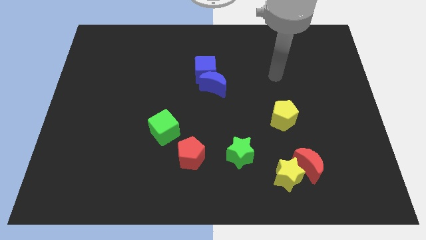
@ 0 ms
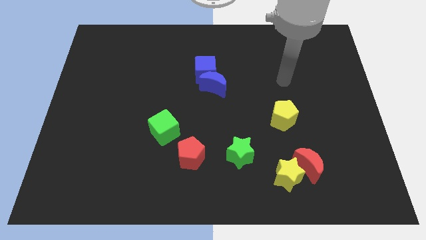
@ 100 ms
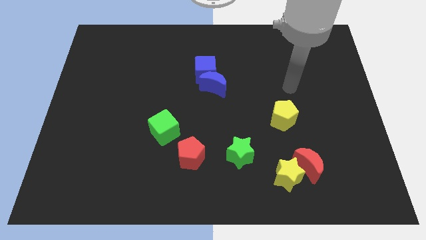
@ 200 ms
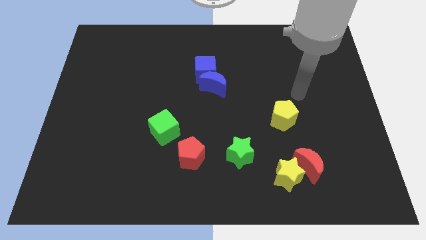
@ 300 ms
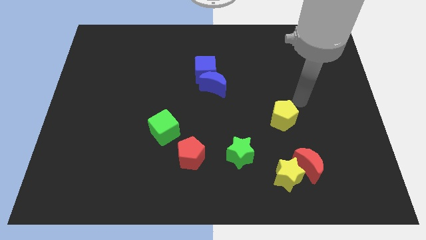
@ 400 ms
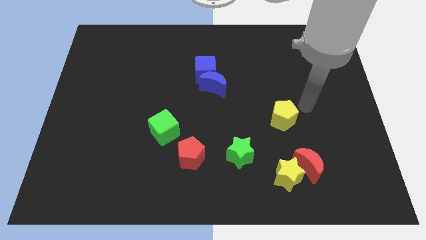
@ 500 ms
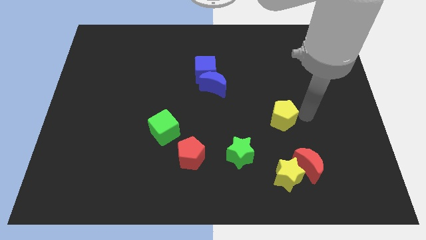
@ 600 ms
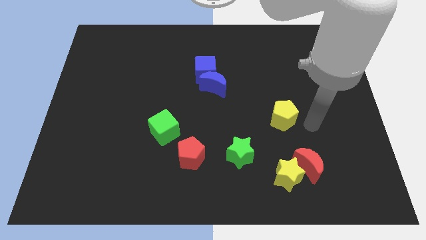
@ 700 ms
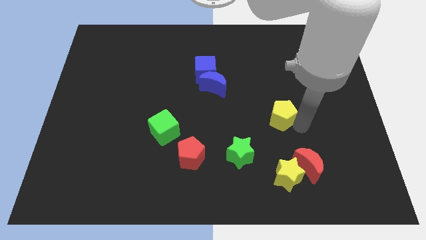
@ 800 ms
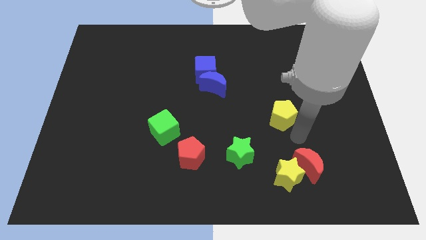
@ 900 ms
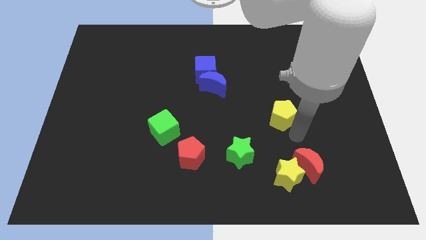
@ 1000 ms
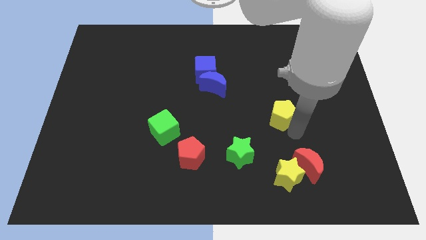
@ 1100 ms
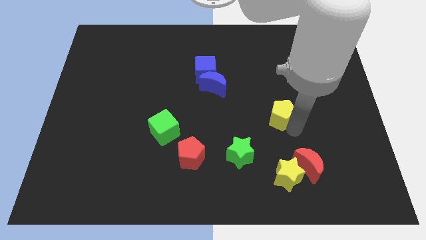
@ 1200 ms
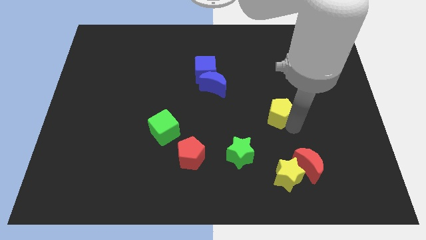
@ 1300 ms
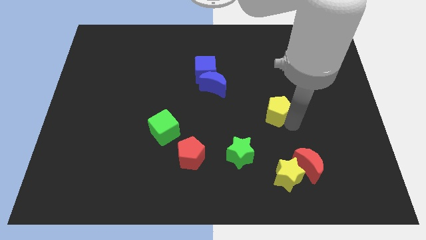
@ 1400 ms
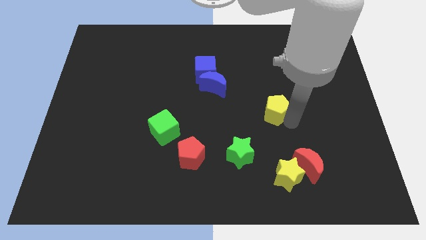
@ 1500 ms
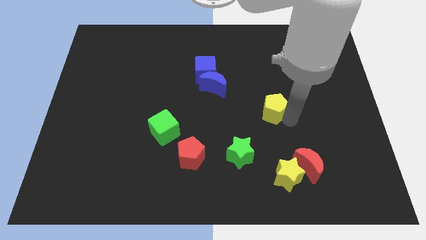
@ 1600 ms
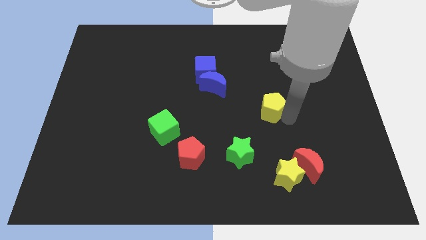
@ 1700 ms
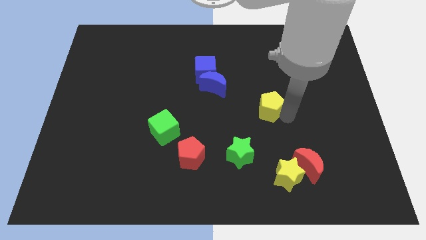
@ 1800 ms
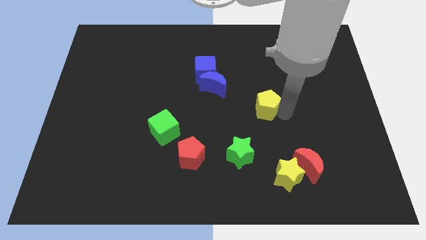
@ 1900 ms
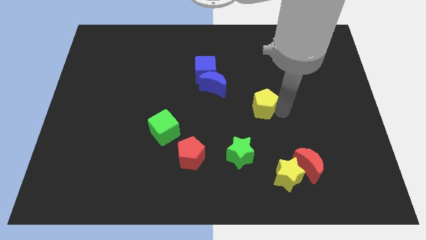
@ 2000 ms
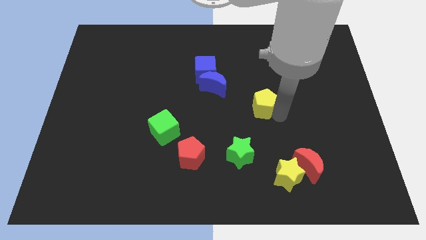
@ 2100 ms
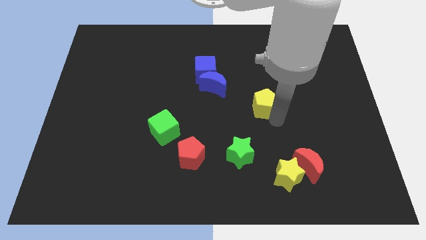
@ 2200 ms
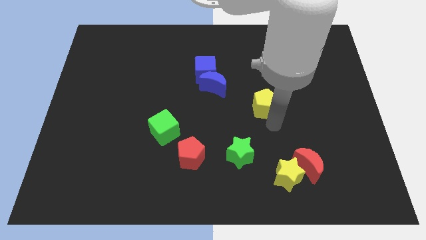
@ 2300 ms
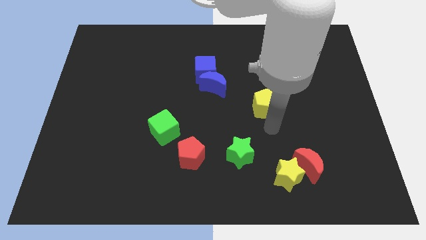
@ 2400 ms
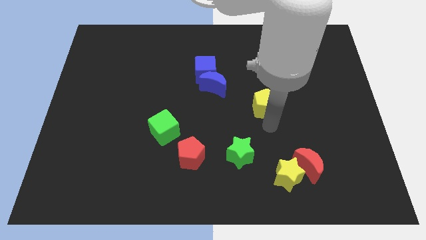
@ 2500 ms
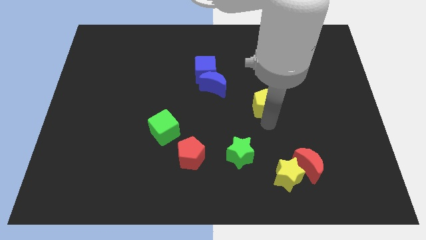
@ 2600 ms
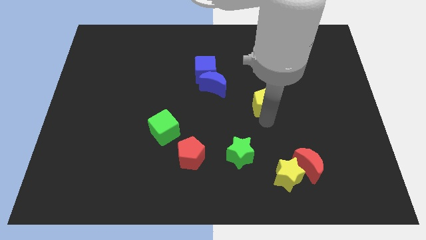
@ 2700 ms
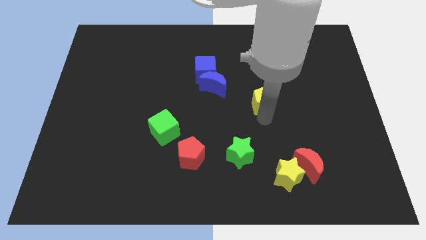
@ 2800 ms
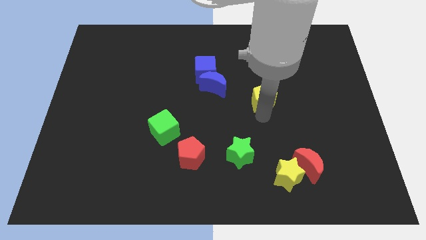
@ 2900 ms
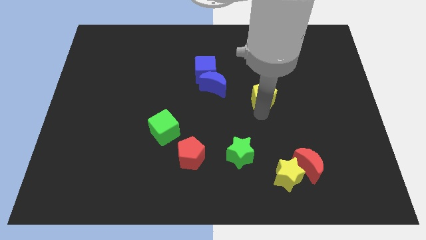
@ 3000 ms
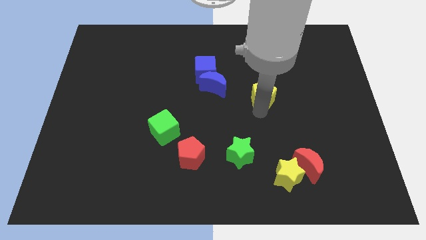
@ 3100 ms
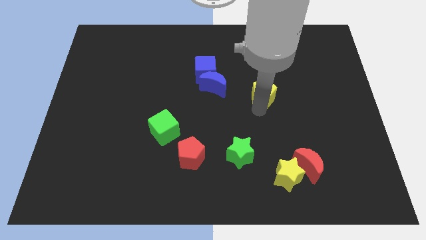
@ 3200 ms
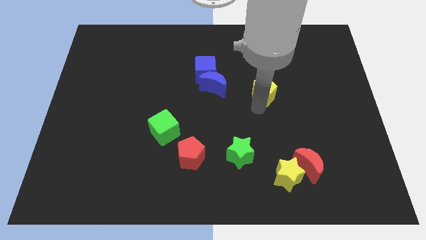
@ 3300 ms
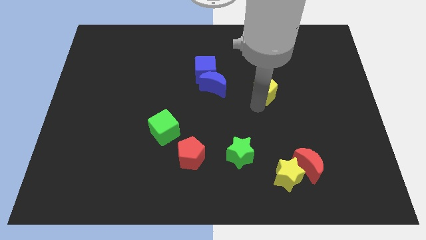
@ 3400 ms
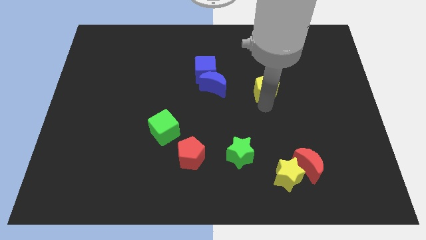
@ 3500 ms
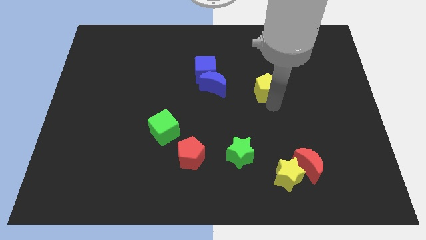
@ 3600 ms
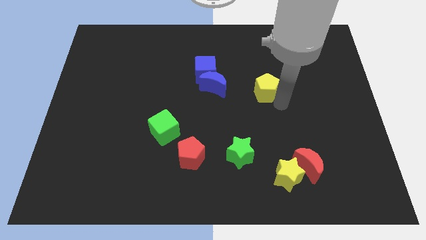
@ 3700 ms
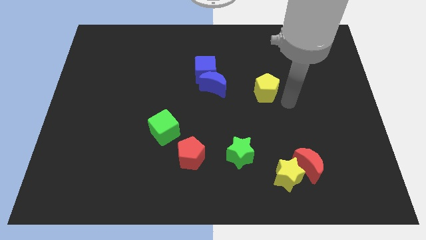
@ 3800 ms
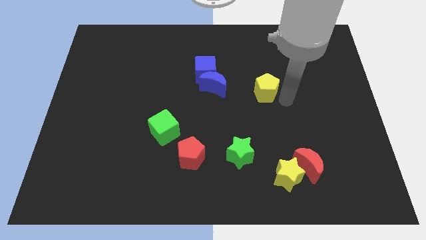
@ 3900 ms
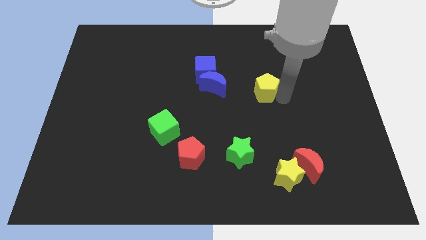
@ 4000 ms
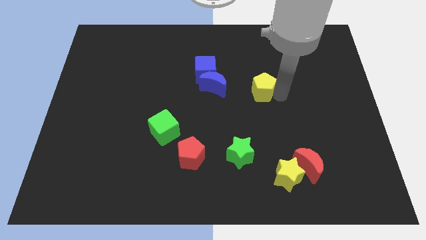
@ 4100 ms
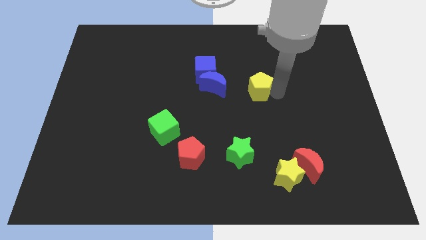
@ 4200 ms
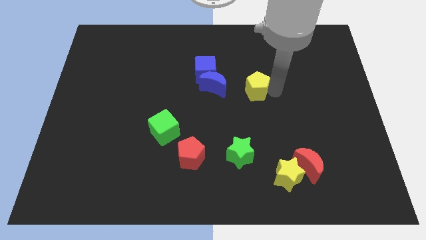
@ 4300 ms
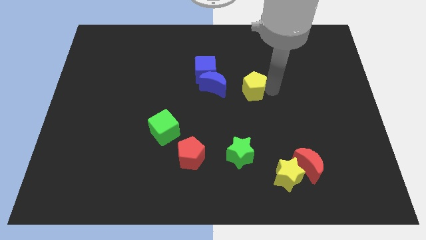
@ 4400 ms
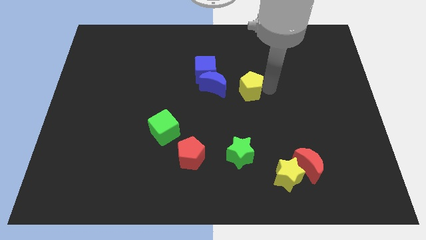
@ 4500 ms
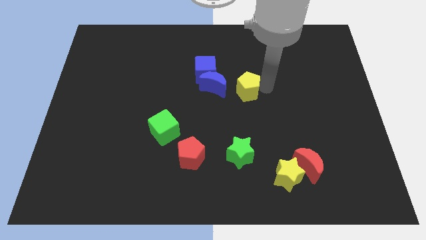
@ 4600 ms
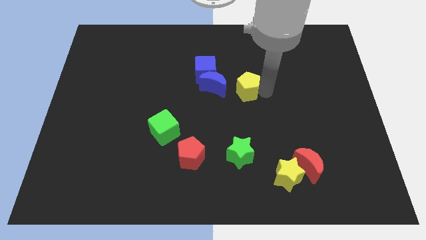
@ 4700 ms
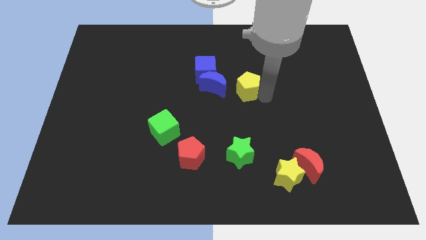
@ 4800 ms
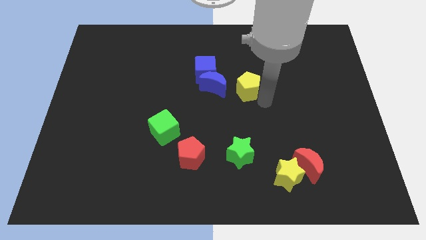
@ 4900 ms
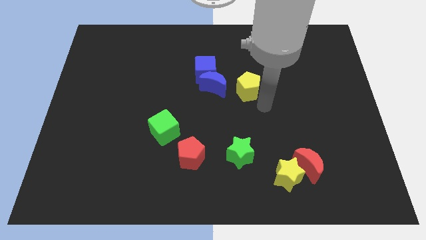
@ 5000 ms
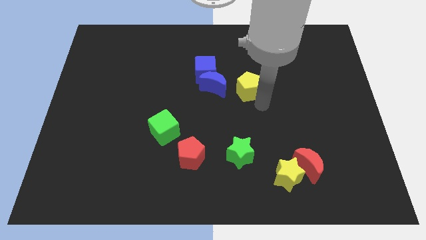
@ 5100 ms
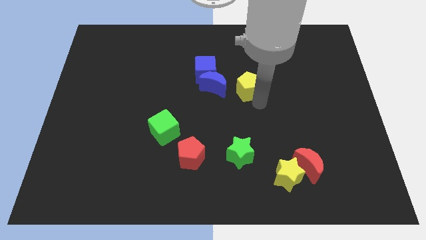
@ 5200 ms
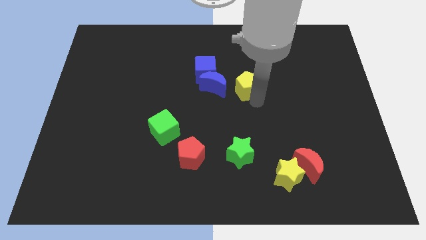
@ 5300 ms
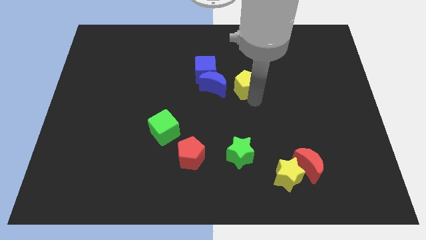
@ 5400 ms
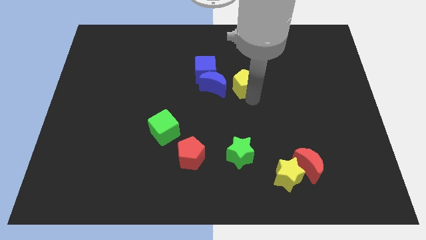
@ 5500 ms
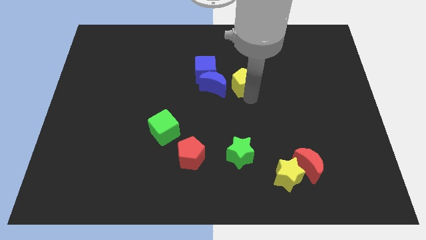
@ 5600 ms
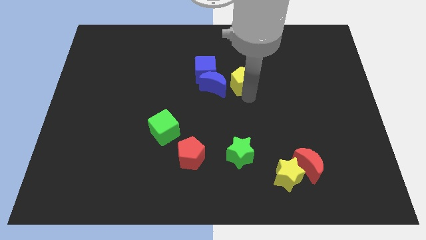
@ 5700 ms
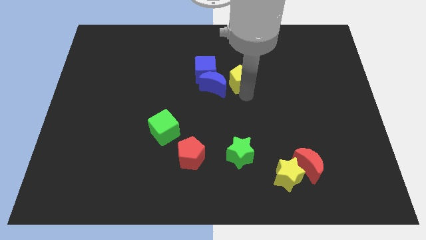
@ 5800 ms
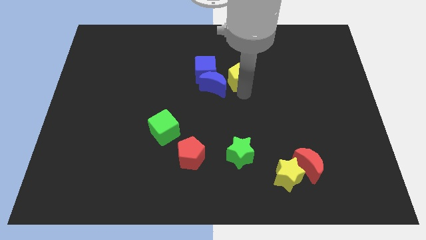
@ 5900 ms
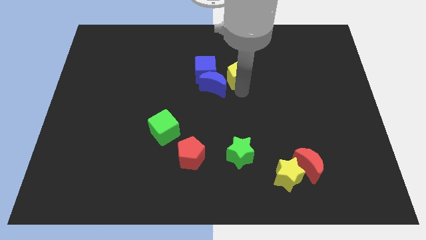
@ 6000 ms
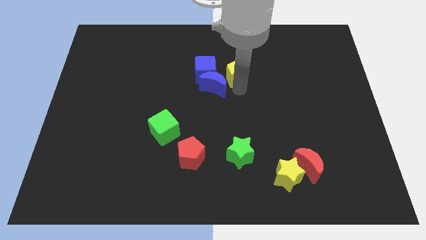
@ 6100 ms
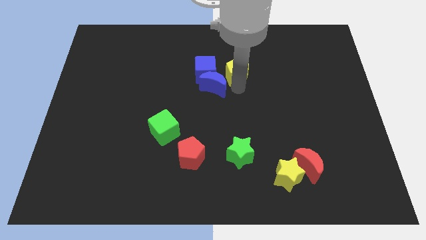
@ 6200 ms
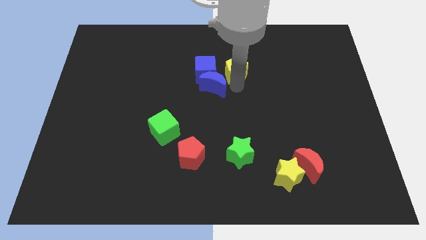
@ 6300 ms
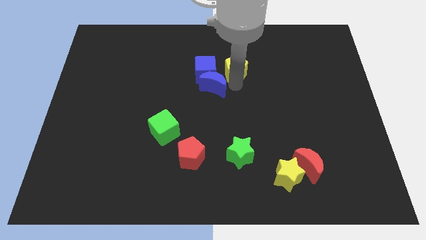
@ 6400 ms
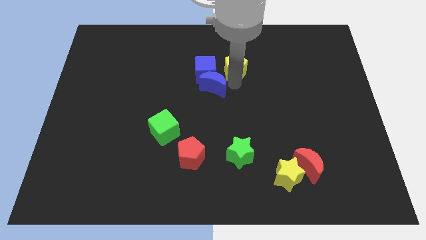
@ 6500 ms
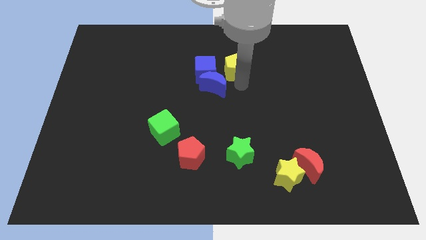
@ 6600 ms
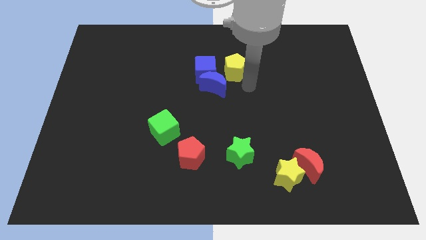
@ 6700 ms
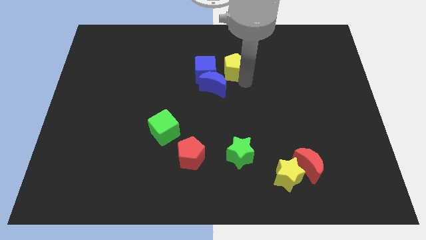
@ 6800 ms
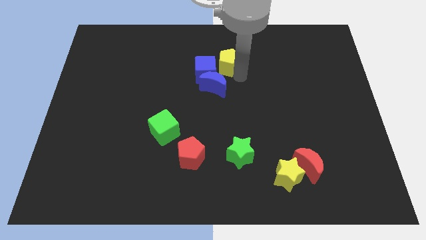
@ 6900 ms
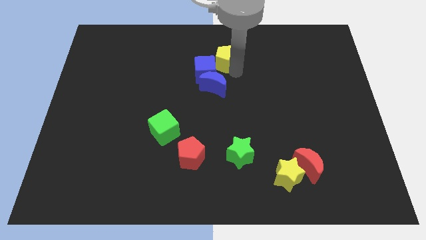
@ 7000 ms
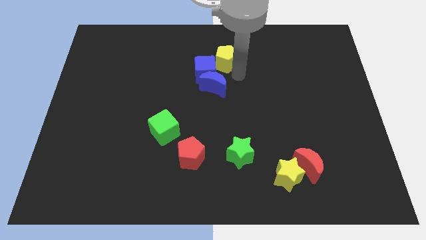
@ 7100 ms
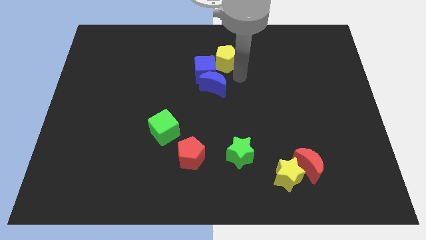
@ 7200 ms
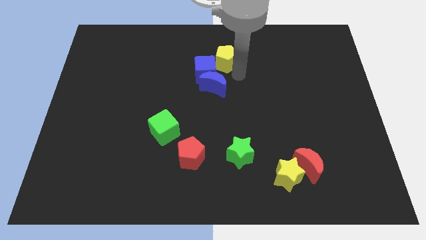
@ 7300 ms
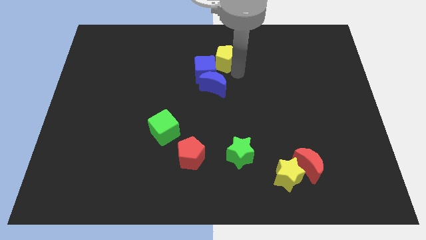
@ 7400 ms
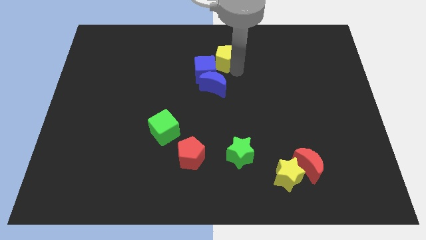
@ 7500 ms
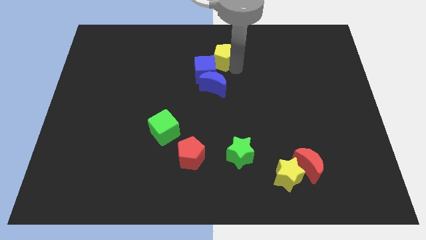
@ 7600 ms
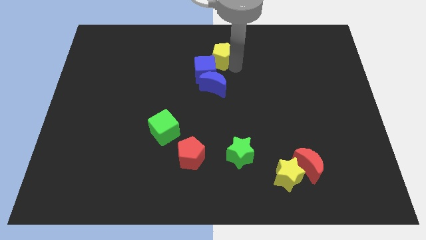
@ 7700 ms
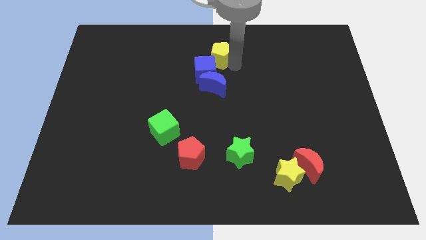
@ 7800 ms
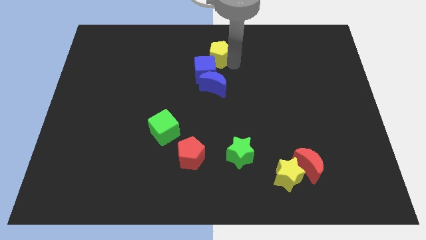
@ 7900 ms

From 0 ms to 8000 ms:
push the yellow pentagon to the towards your base
